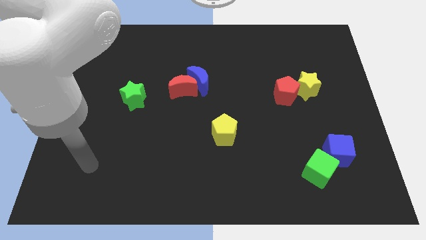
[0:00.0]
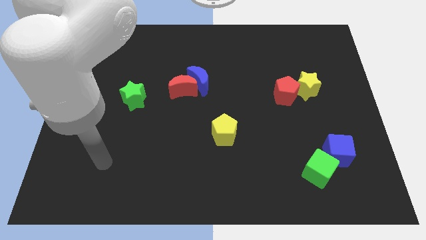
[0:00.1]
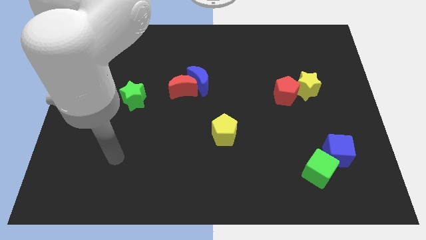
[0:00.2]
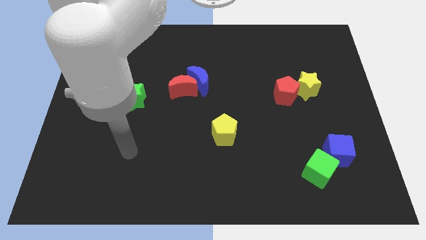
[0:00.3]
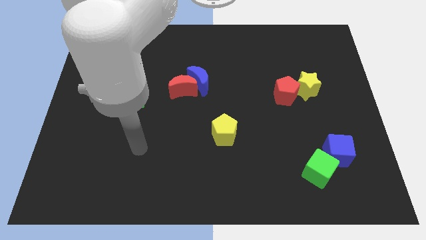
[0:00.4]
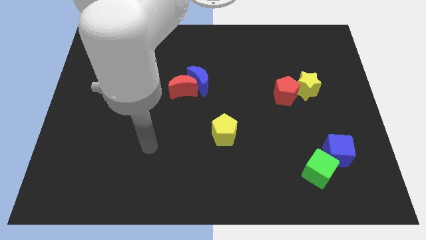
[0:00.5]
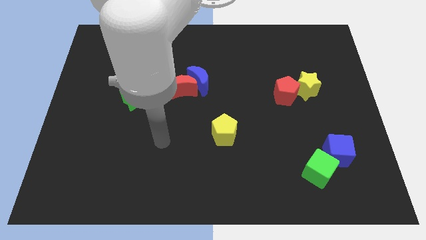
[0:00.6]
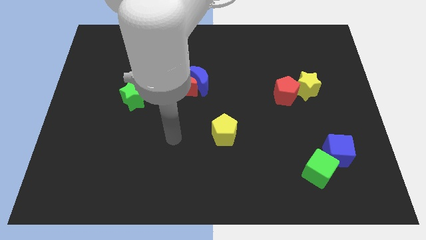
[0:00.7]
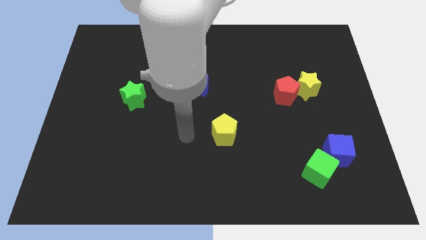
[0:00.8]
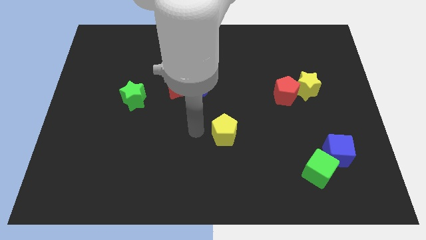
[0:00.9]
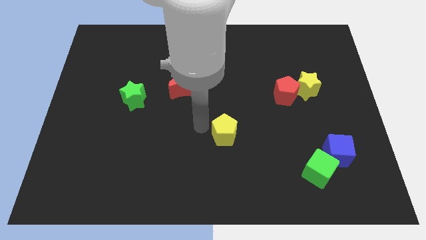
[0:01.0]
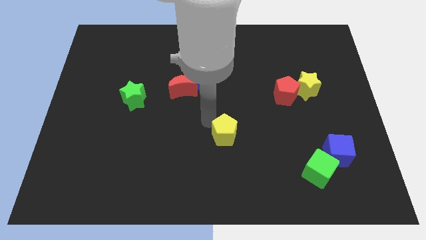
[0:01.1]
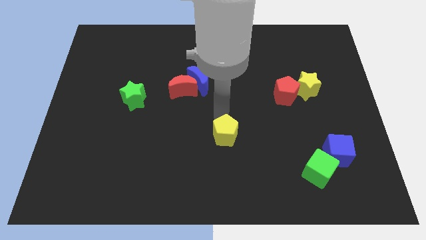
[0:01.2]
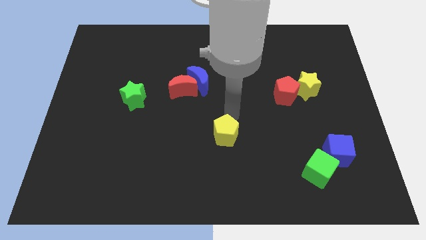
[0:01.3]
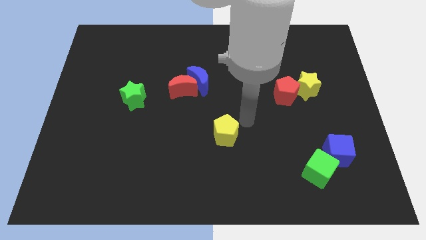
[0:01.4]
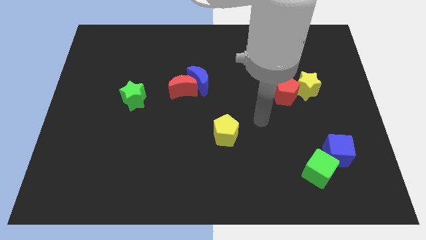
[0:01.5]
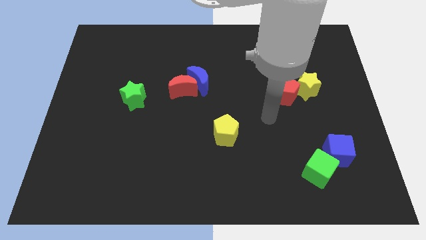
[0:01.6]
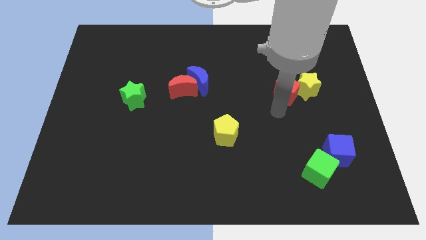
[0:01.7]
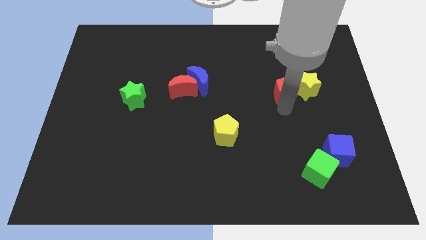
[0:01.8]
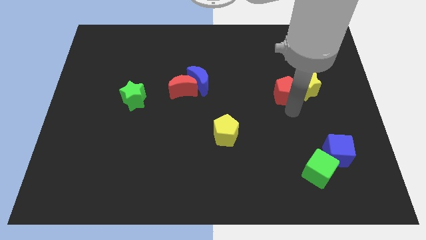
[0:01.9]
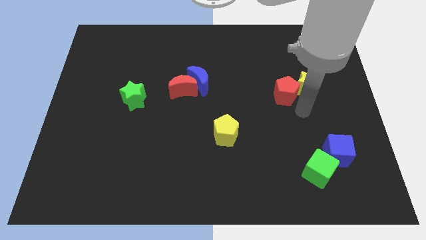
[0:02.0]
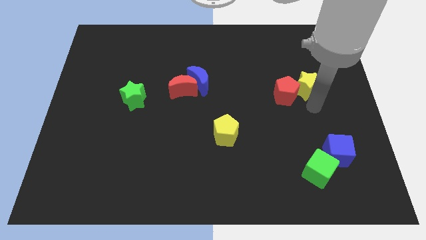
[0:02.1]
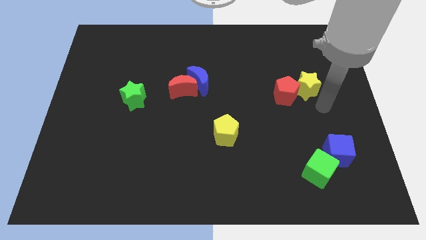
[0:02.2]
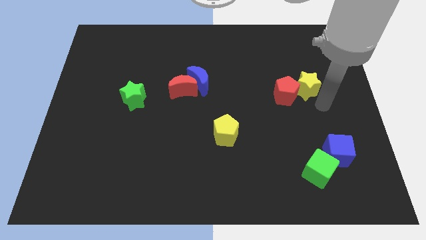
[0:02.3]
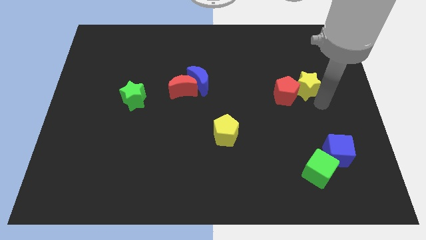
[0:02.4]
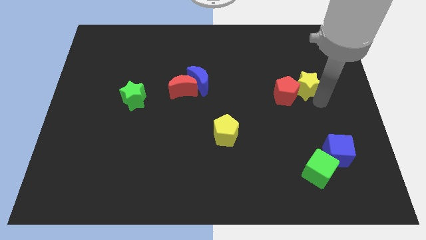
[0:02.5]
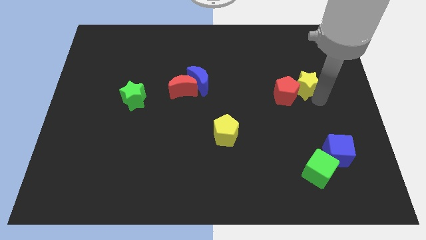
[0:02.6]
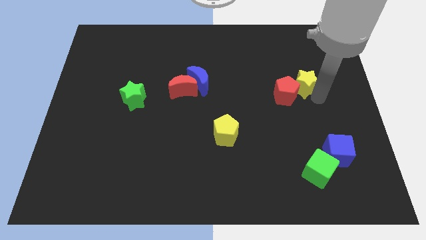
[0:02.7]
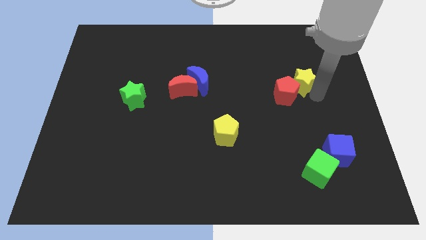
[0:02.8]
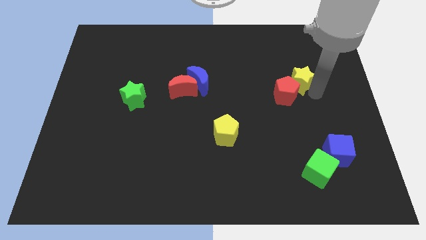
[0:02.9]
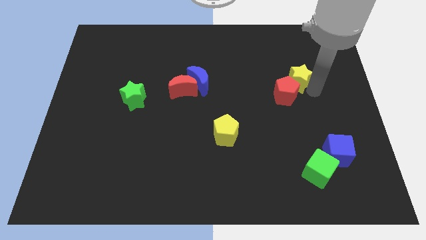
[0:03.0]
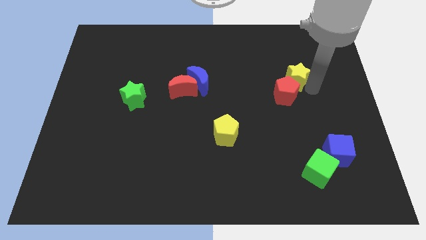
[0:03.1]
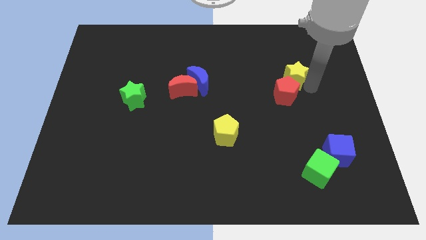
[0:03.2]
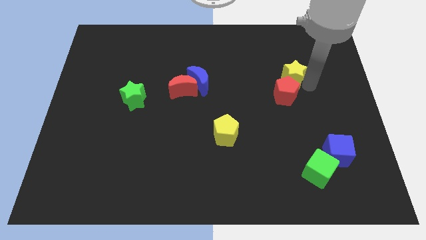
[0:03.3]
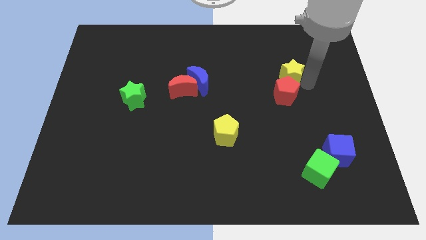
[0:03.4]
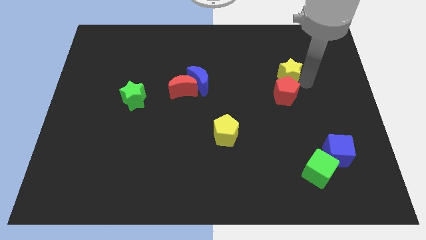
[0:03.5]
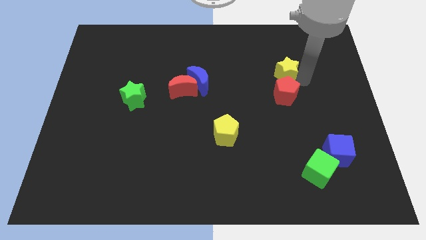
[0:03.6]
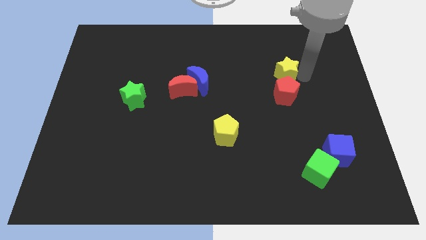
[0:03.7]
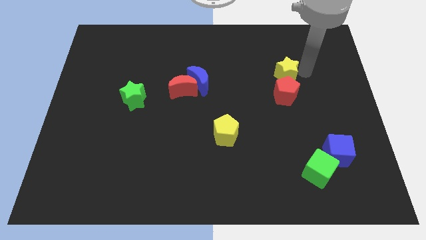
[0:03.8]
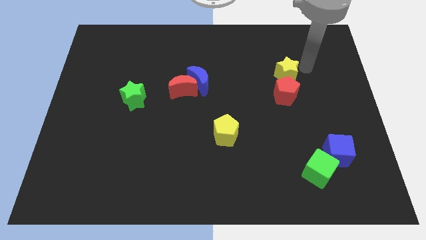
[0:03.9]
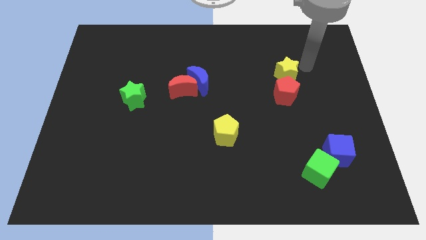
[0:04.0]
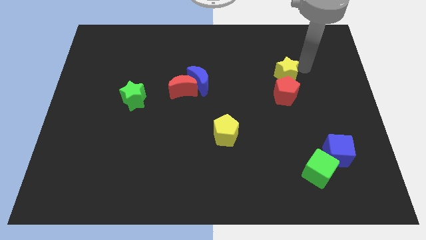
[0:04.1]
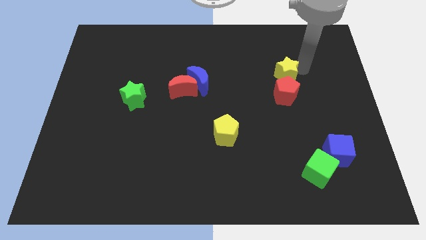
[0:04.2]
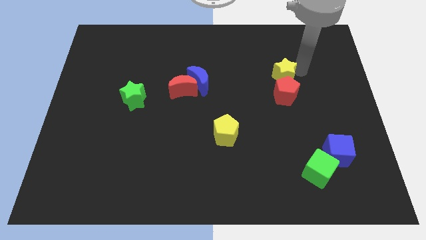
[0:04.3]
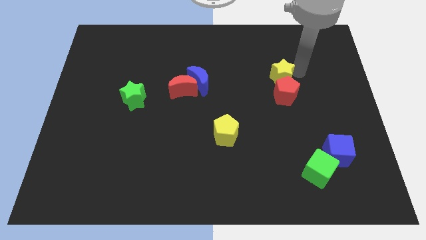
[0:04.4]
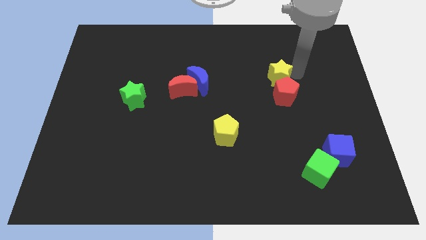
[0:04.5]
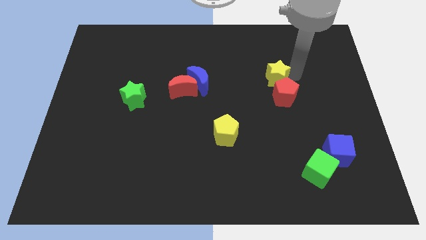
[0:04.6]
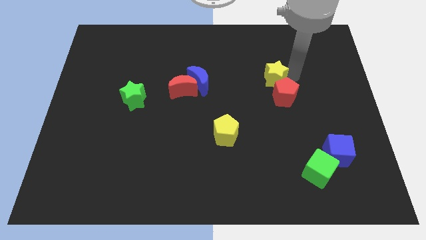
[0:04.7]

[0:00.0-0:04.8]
slightly push the yellow star to the left

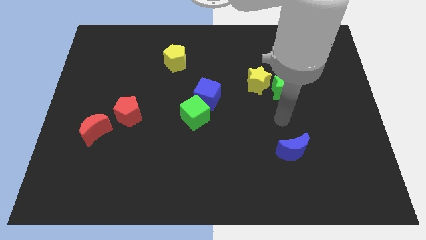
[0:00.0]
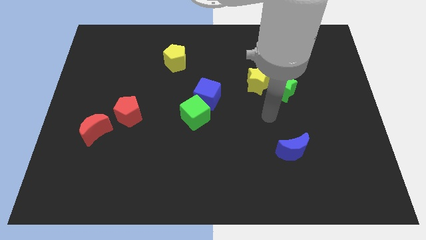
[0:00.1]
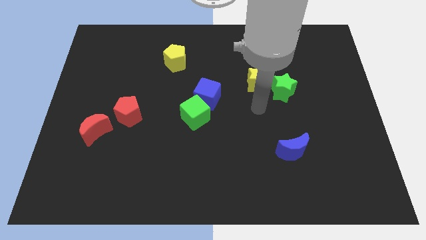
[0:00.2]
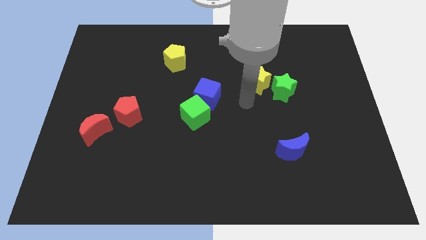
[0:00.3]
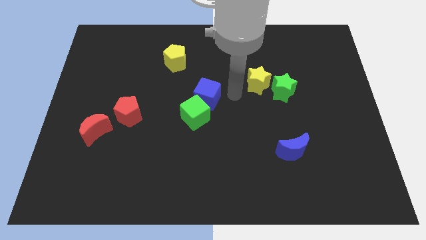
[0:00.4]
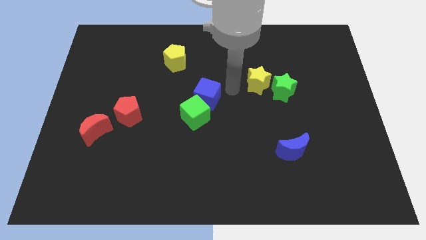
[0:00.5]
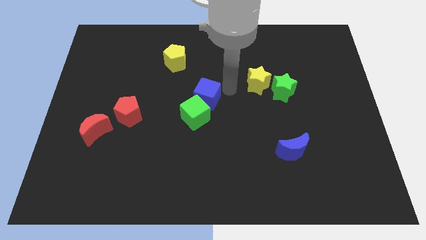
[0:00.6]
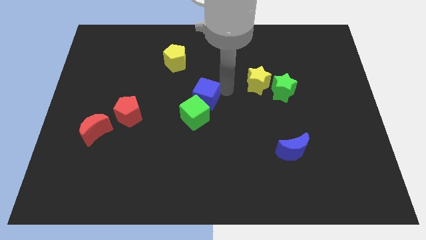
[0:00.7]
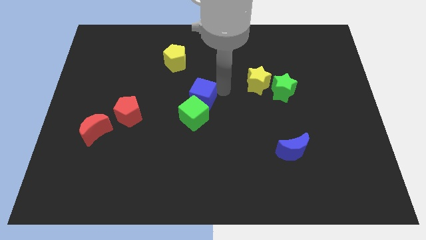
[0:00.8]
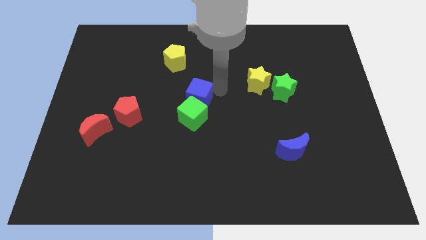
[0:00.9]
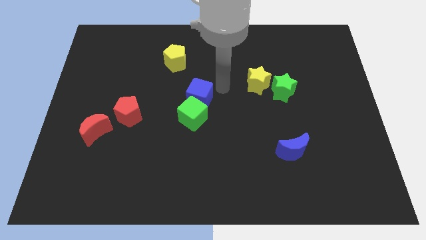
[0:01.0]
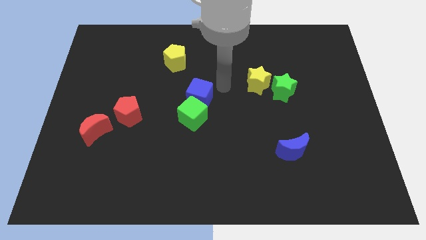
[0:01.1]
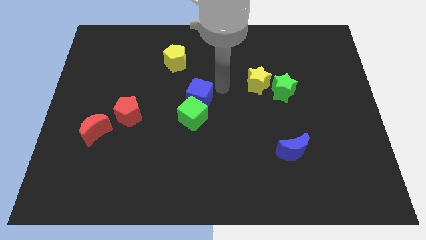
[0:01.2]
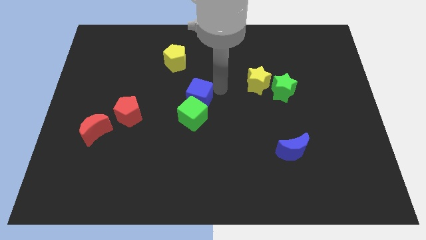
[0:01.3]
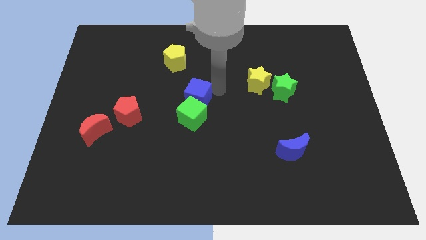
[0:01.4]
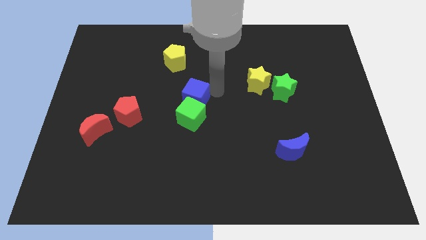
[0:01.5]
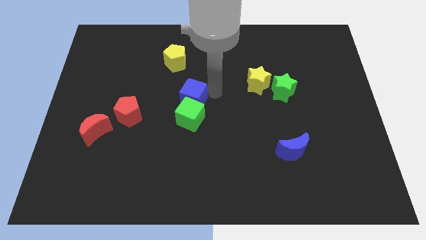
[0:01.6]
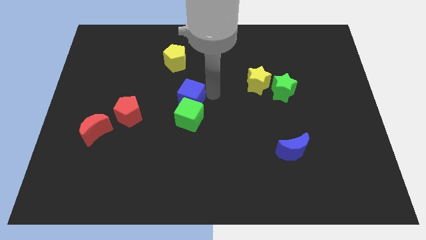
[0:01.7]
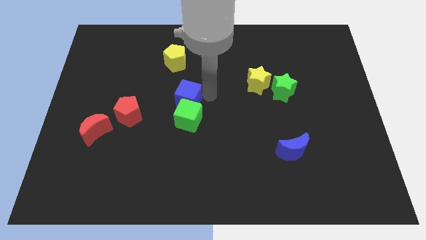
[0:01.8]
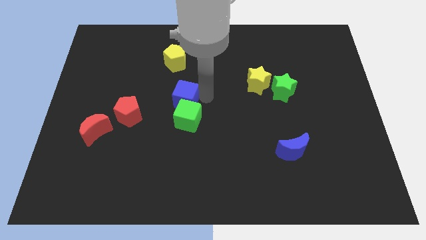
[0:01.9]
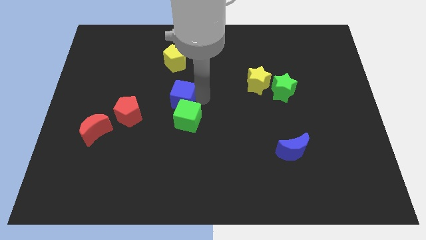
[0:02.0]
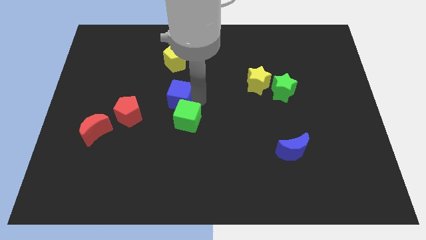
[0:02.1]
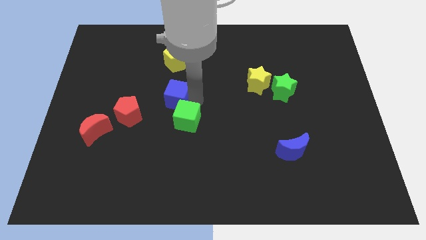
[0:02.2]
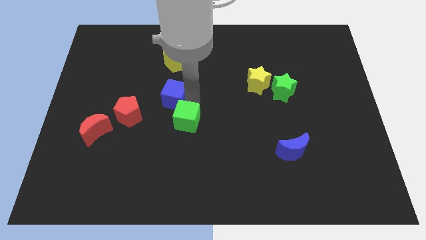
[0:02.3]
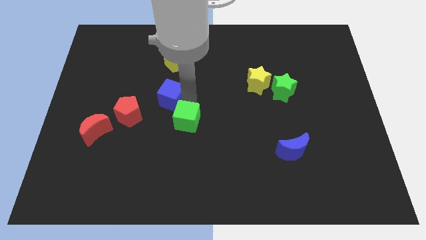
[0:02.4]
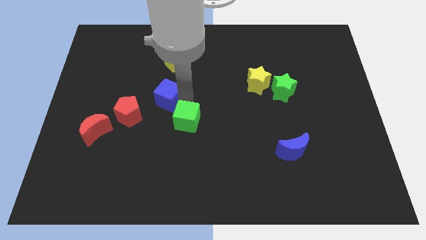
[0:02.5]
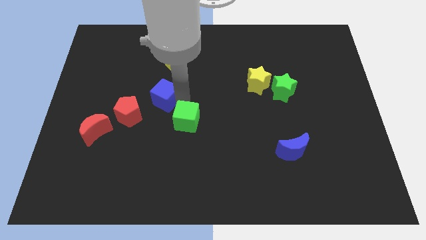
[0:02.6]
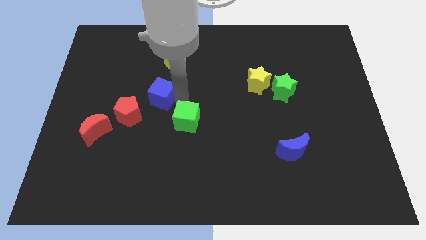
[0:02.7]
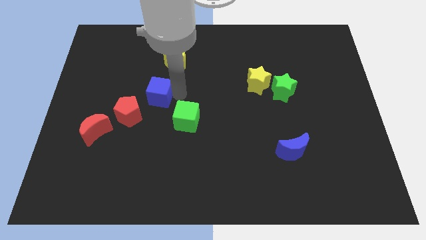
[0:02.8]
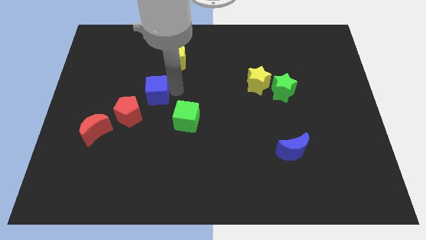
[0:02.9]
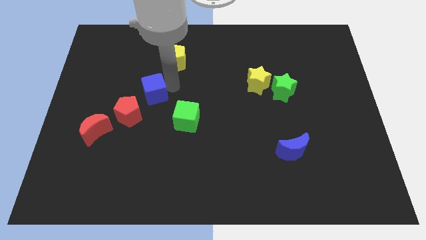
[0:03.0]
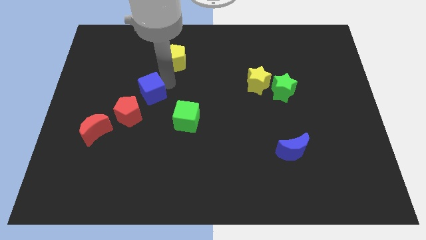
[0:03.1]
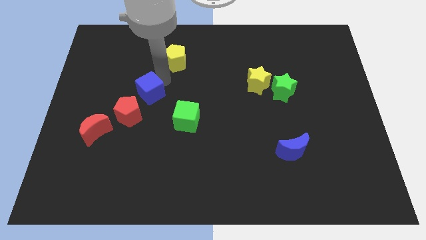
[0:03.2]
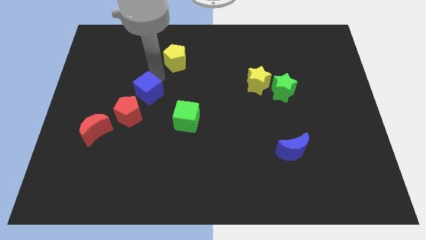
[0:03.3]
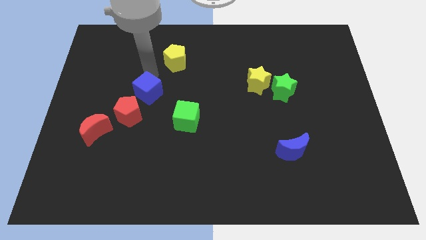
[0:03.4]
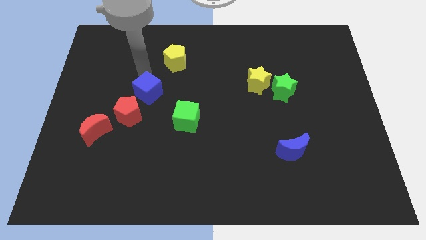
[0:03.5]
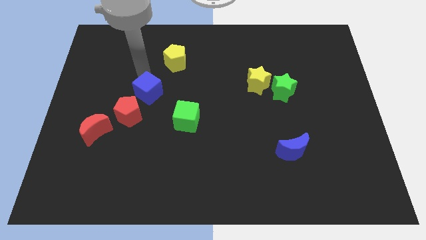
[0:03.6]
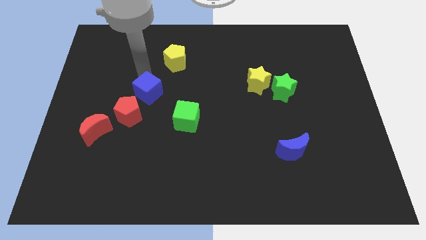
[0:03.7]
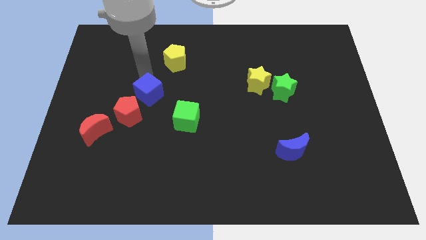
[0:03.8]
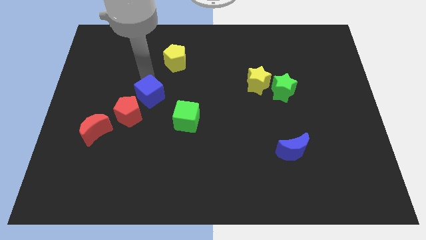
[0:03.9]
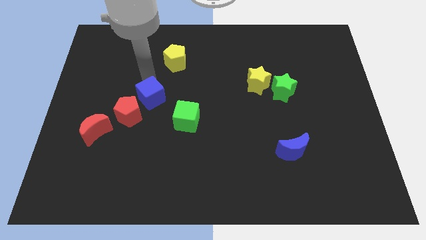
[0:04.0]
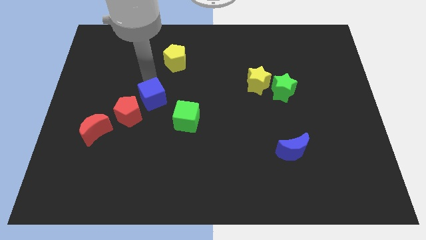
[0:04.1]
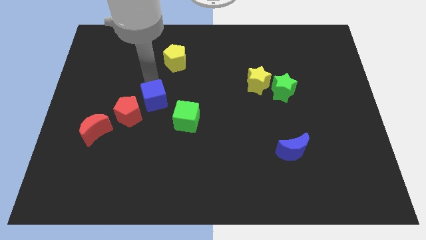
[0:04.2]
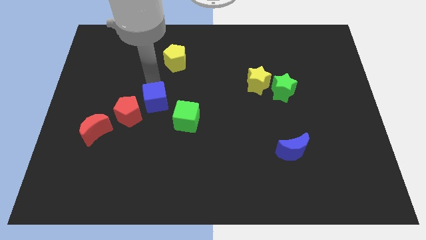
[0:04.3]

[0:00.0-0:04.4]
slide the blue cube downwards and to the left diagonally somewhat
